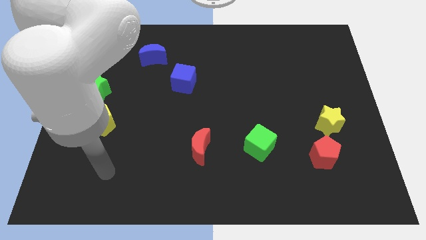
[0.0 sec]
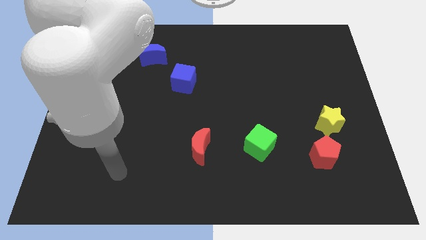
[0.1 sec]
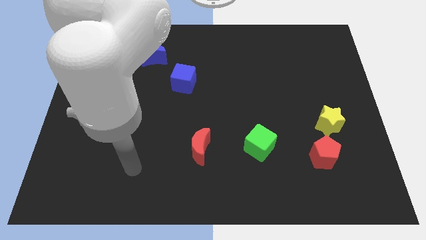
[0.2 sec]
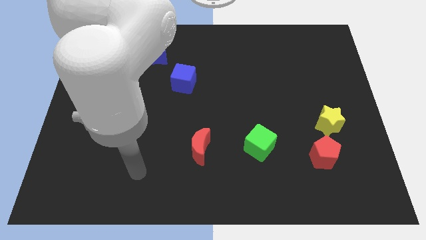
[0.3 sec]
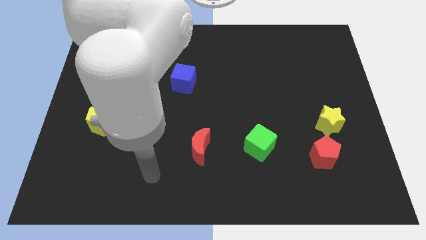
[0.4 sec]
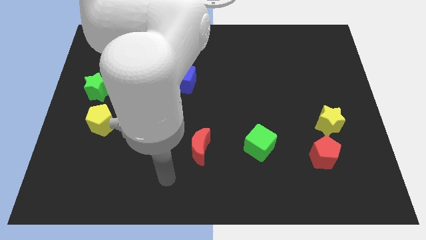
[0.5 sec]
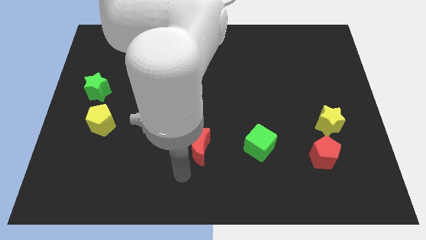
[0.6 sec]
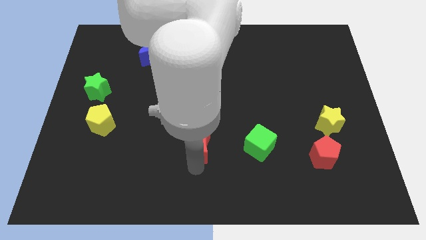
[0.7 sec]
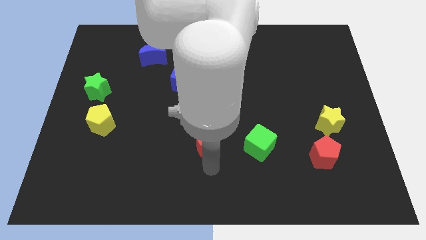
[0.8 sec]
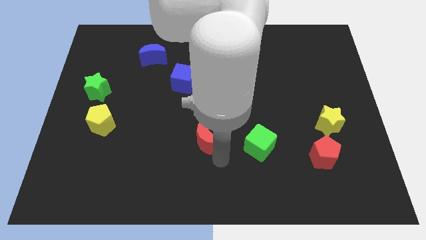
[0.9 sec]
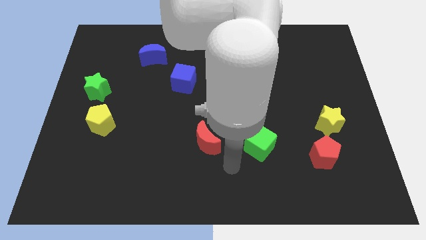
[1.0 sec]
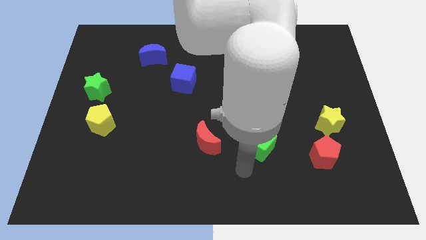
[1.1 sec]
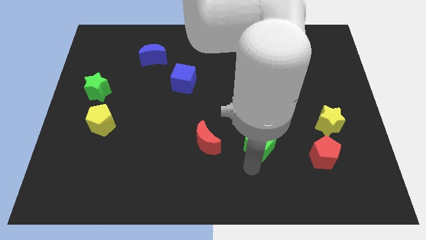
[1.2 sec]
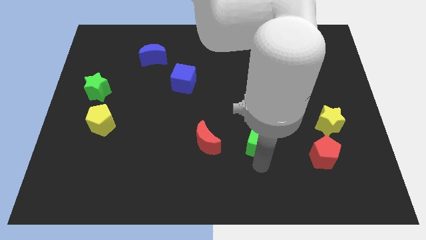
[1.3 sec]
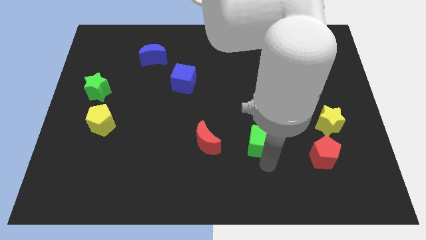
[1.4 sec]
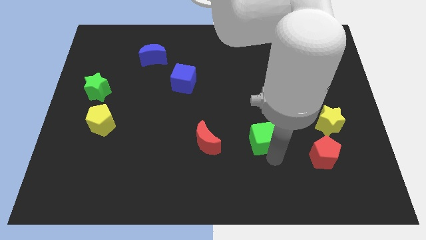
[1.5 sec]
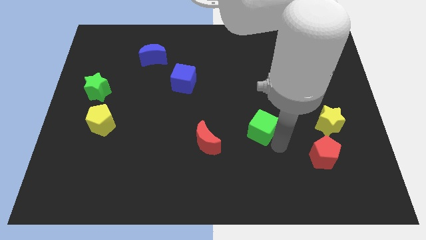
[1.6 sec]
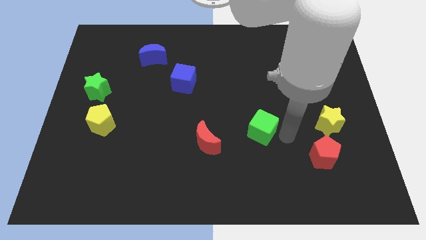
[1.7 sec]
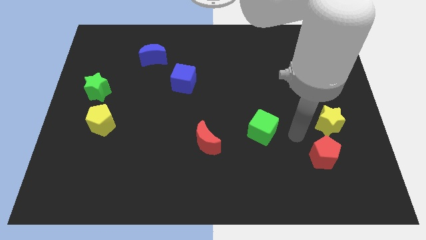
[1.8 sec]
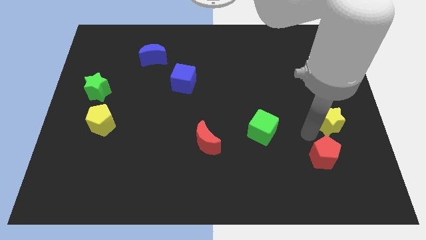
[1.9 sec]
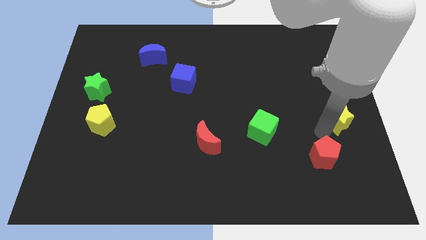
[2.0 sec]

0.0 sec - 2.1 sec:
move the red pentagon away from the yellow star

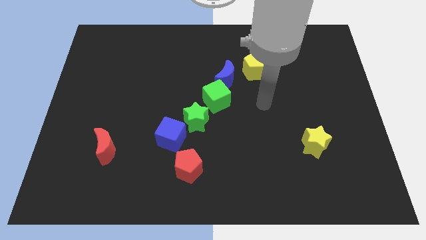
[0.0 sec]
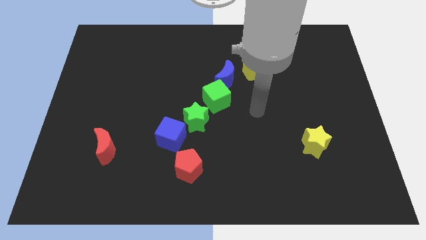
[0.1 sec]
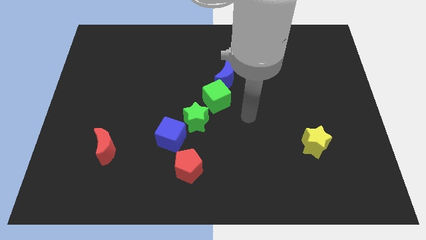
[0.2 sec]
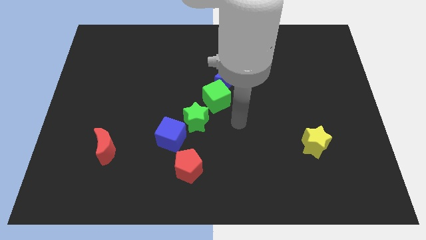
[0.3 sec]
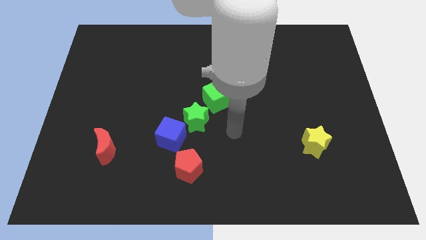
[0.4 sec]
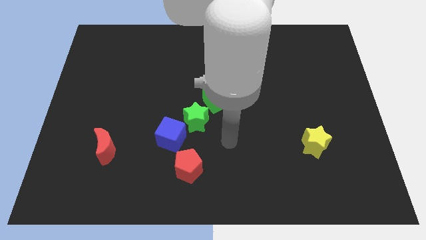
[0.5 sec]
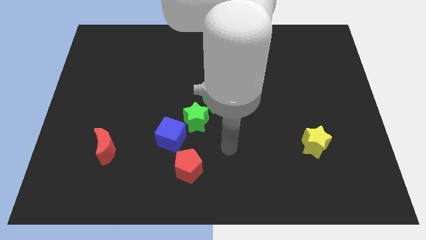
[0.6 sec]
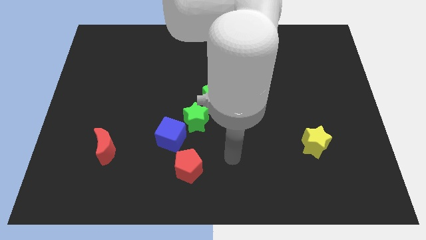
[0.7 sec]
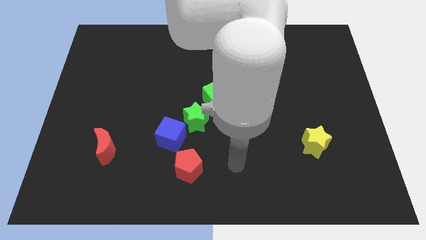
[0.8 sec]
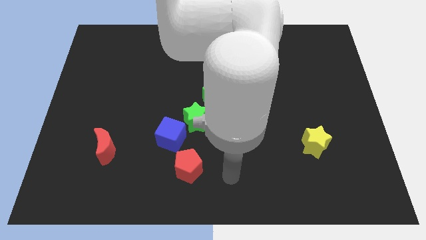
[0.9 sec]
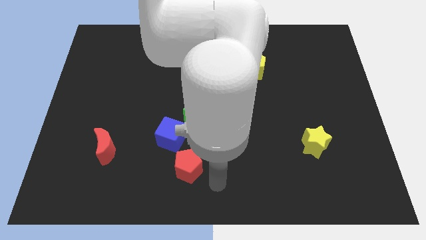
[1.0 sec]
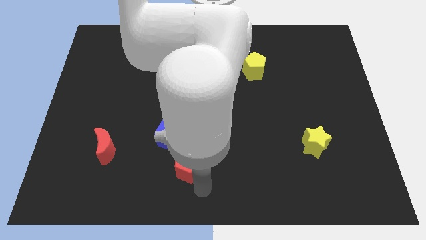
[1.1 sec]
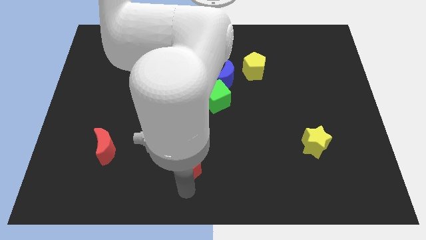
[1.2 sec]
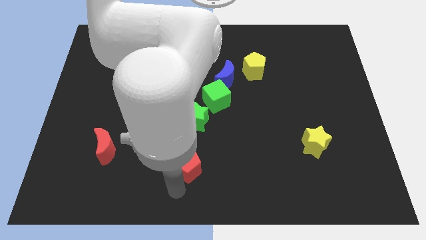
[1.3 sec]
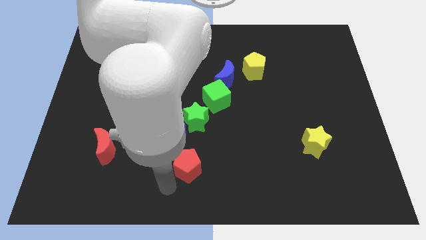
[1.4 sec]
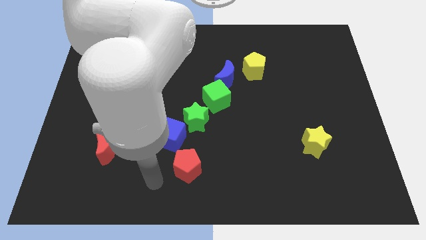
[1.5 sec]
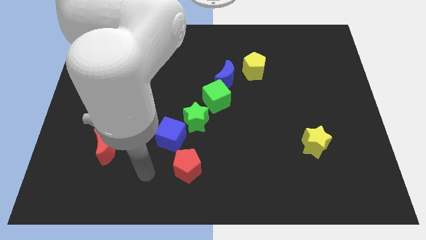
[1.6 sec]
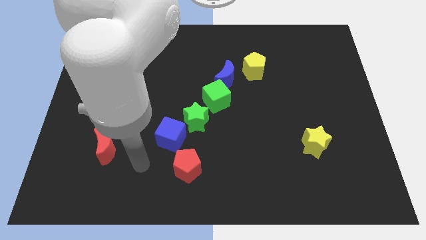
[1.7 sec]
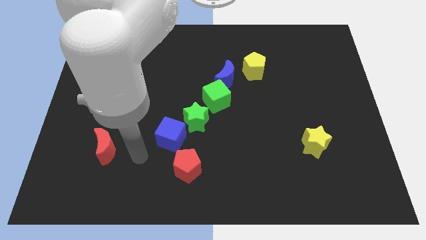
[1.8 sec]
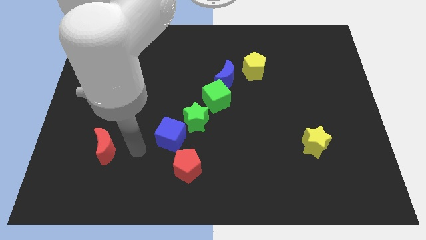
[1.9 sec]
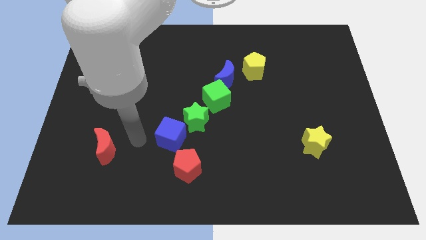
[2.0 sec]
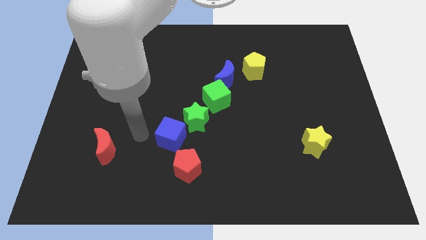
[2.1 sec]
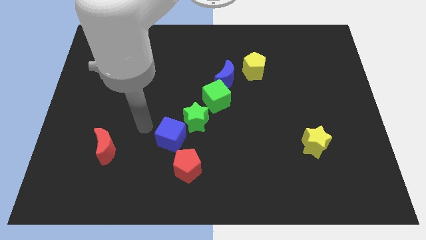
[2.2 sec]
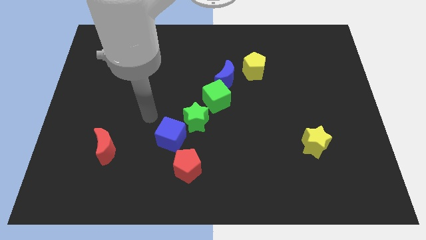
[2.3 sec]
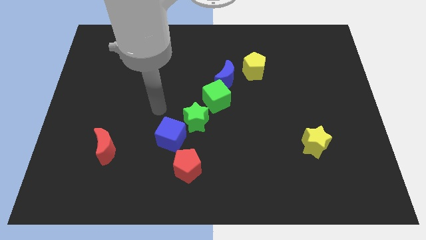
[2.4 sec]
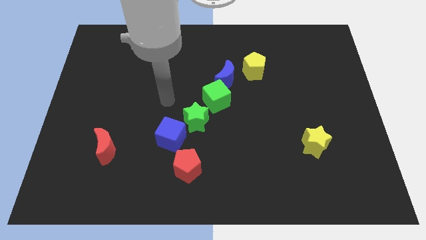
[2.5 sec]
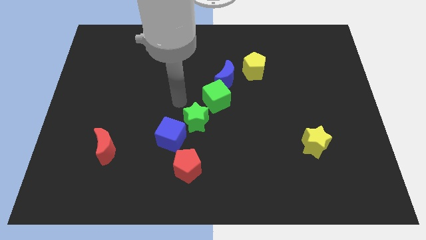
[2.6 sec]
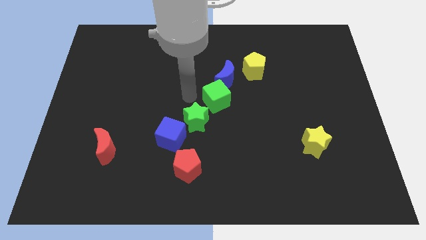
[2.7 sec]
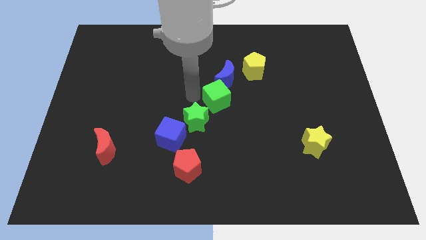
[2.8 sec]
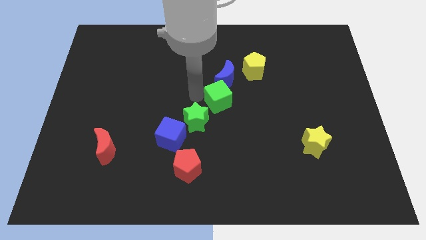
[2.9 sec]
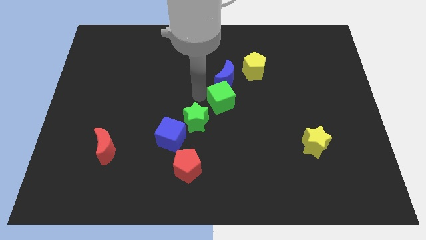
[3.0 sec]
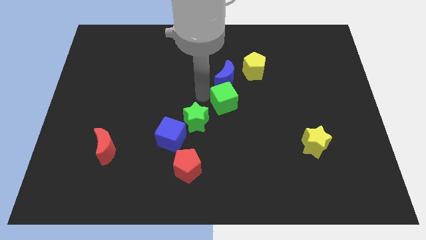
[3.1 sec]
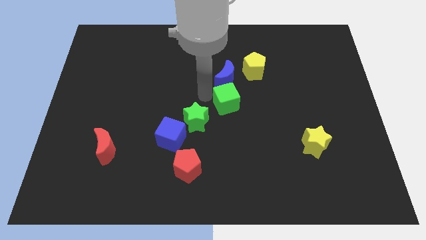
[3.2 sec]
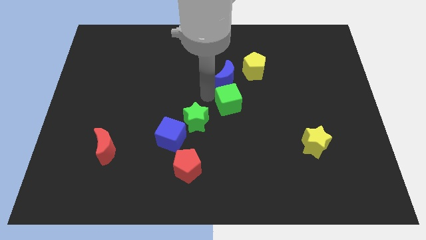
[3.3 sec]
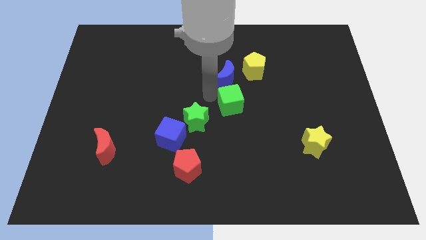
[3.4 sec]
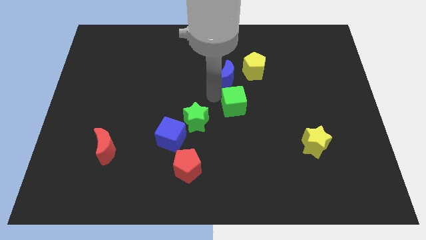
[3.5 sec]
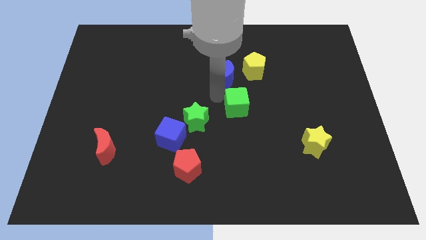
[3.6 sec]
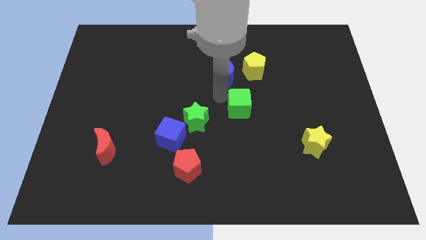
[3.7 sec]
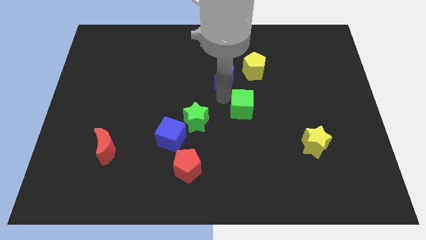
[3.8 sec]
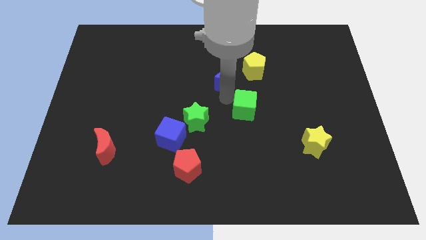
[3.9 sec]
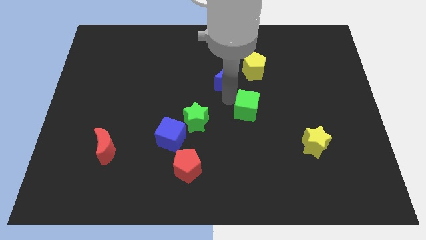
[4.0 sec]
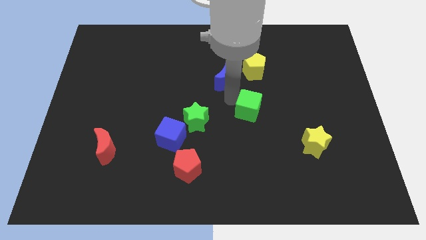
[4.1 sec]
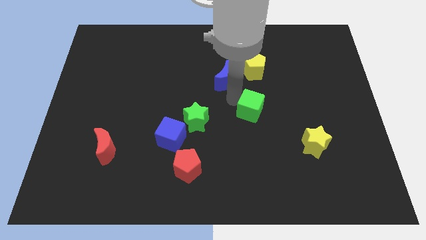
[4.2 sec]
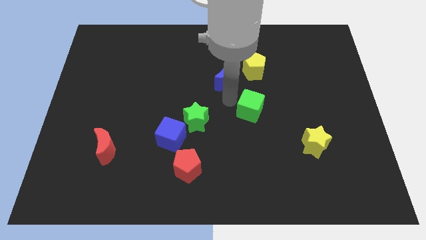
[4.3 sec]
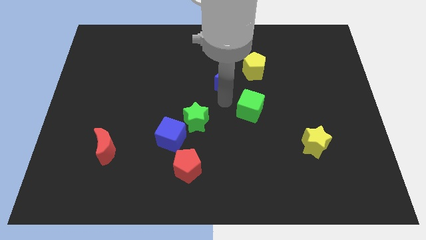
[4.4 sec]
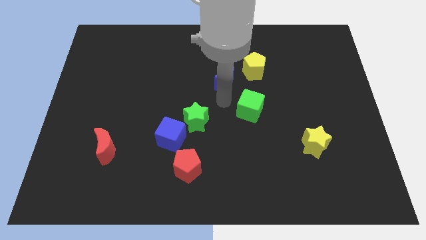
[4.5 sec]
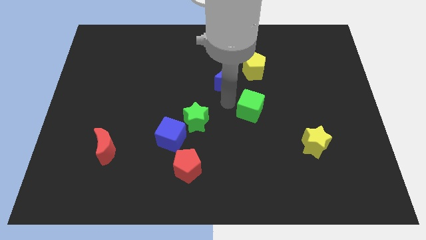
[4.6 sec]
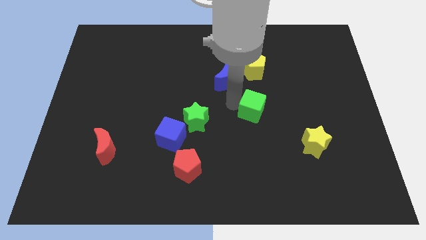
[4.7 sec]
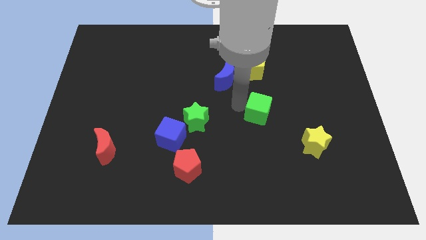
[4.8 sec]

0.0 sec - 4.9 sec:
move the green cube away from the blue moon and green star

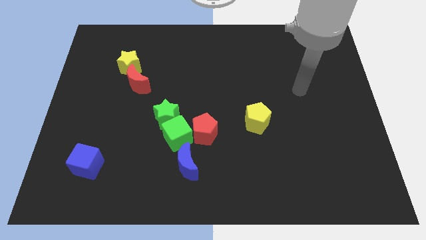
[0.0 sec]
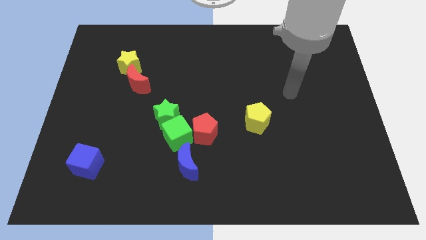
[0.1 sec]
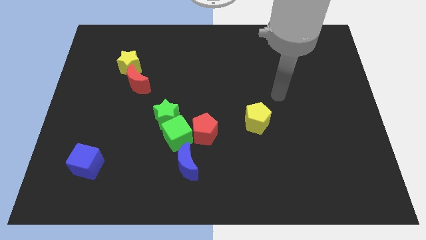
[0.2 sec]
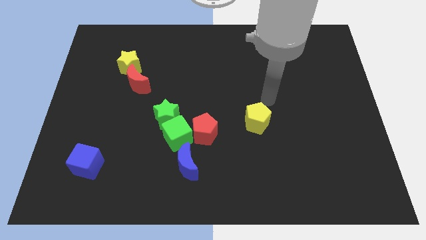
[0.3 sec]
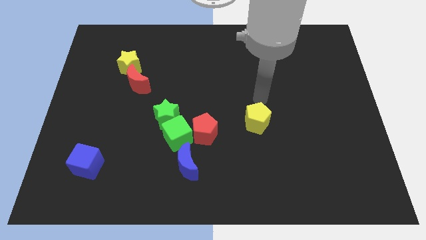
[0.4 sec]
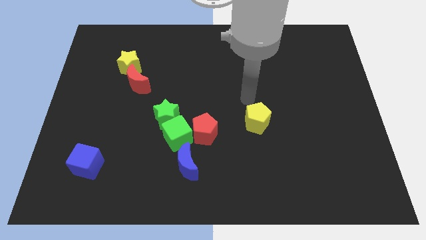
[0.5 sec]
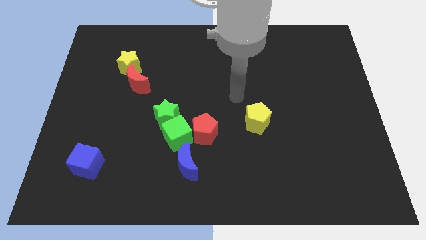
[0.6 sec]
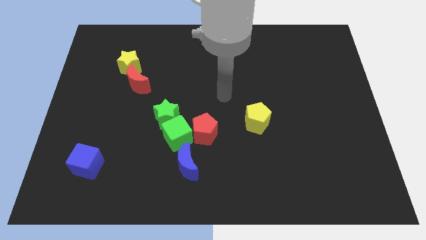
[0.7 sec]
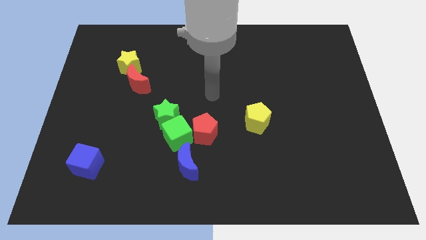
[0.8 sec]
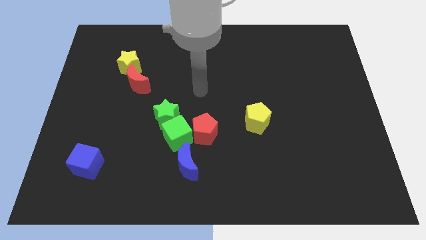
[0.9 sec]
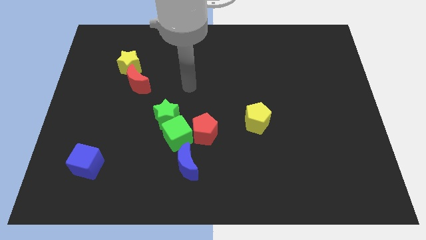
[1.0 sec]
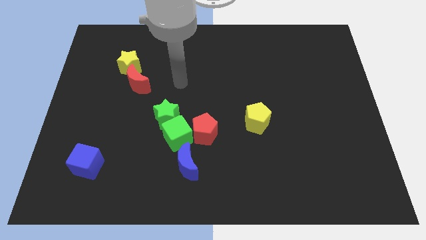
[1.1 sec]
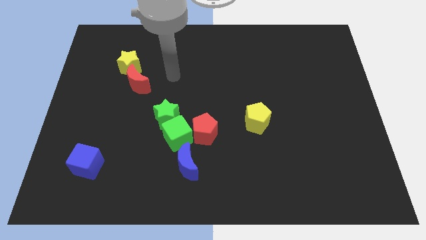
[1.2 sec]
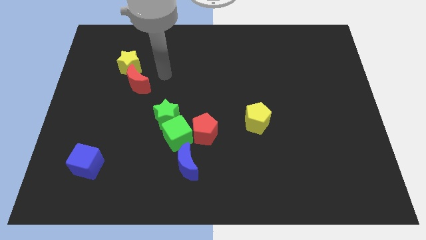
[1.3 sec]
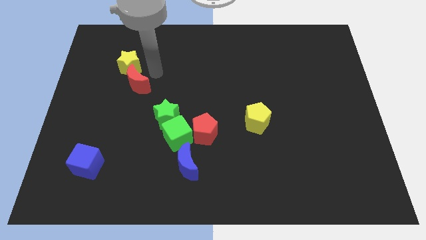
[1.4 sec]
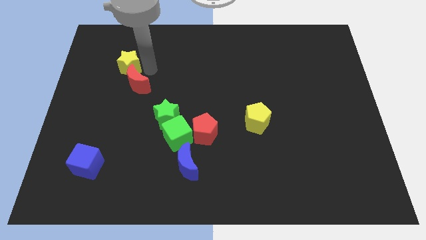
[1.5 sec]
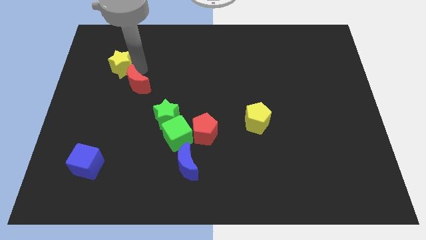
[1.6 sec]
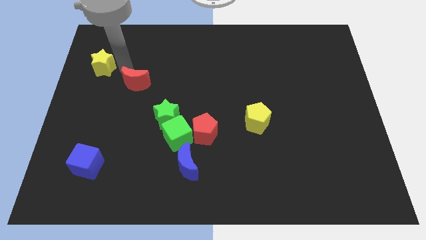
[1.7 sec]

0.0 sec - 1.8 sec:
separate the red moon from the yellow star

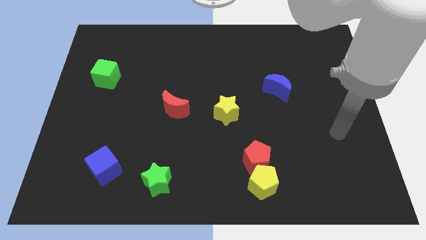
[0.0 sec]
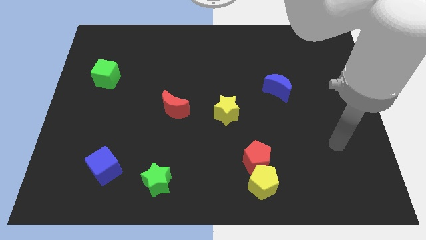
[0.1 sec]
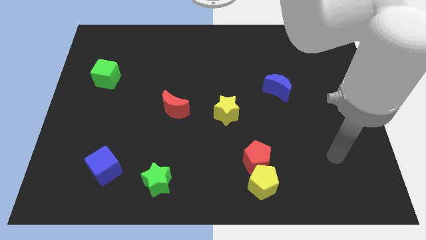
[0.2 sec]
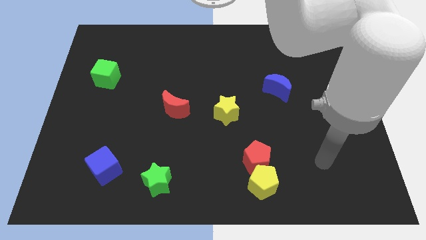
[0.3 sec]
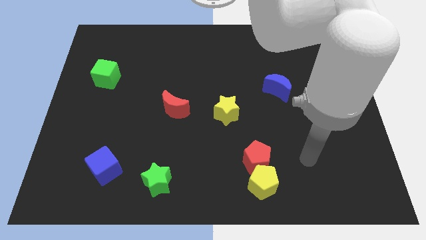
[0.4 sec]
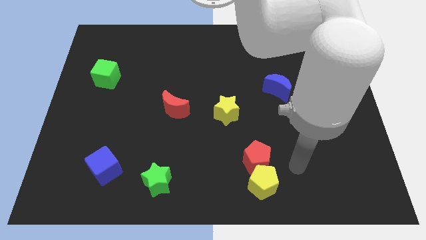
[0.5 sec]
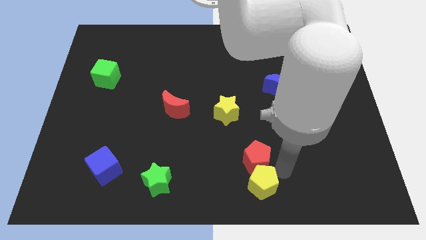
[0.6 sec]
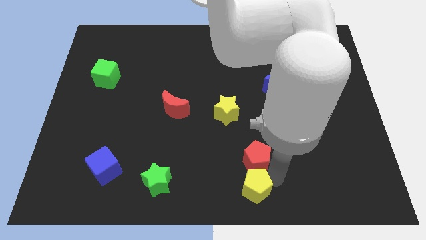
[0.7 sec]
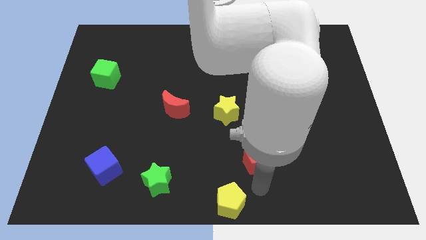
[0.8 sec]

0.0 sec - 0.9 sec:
pull the red pentagon apart from the yellow pentagon
